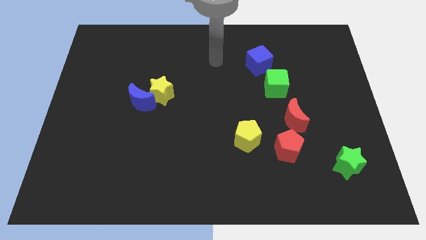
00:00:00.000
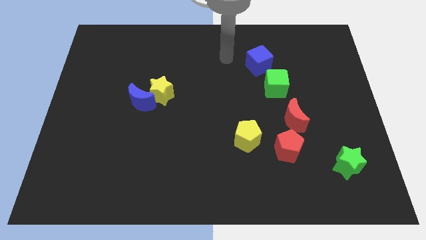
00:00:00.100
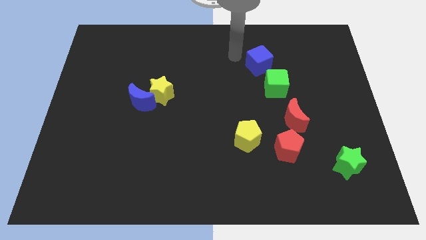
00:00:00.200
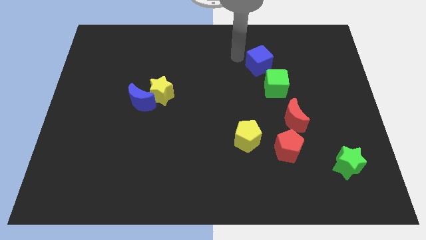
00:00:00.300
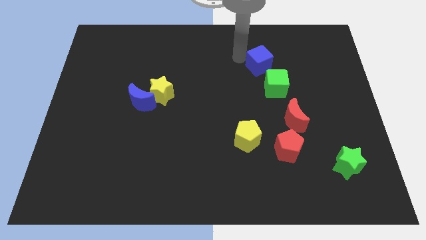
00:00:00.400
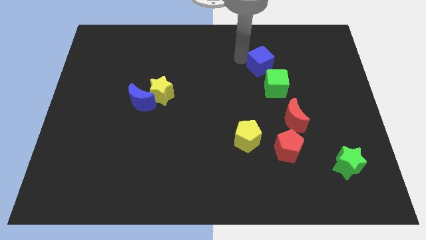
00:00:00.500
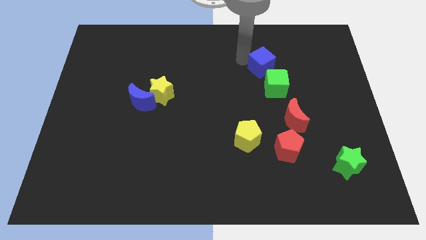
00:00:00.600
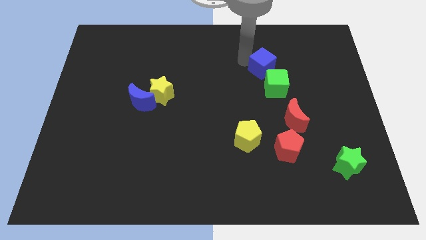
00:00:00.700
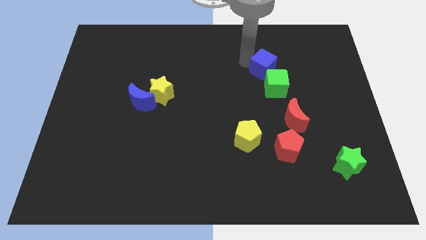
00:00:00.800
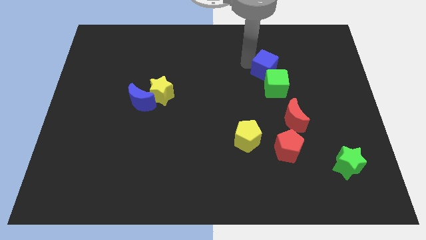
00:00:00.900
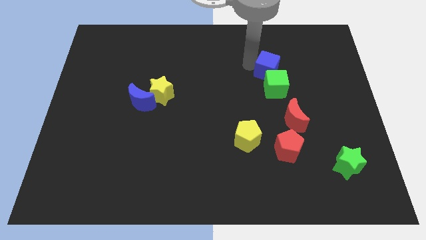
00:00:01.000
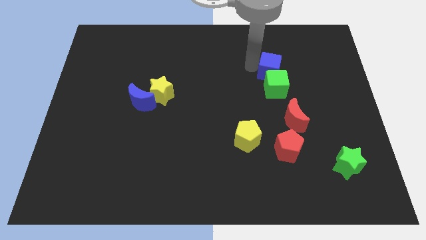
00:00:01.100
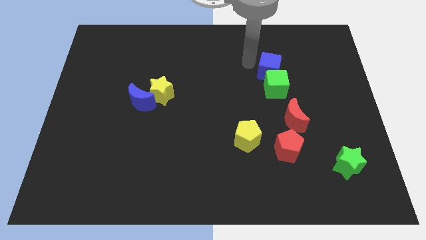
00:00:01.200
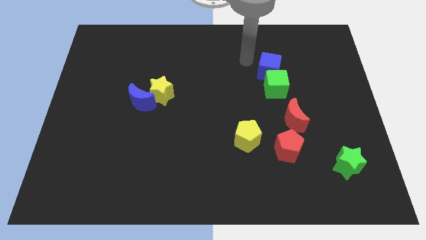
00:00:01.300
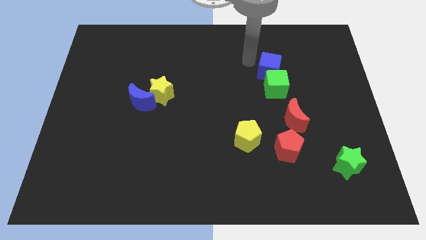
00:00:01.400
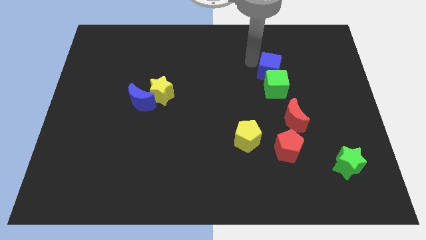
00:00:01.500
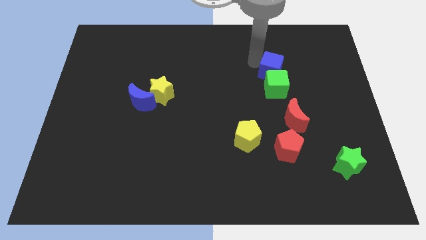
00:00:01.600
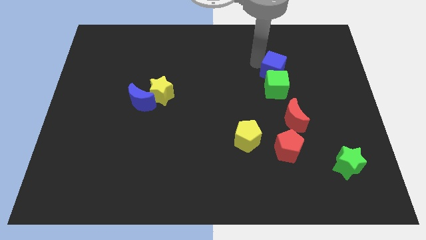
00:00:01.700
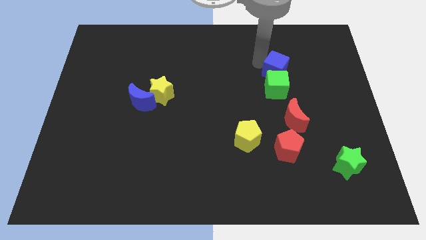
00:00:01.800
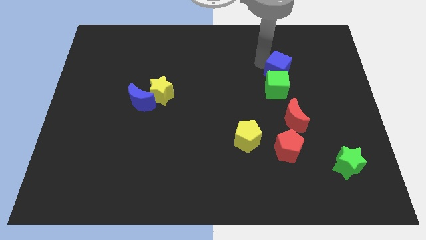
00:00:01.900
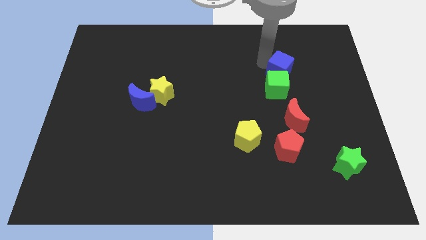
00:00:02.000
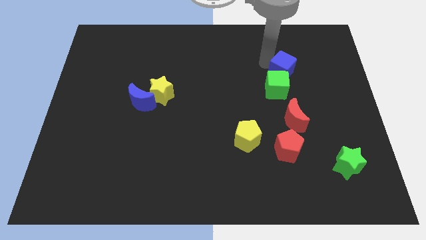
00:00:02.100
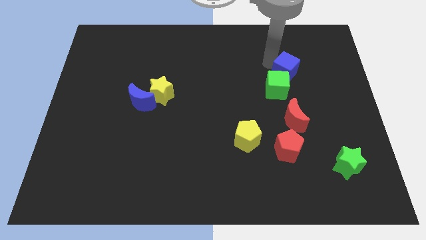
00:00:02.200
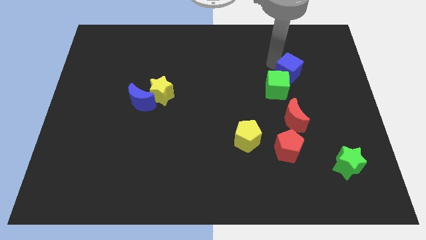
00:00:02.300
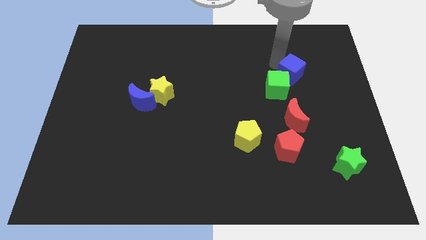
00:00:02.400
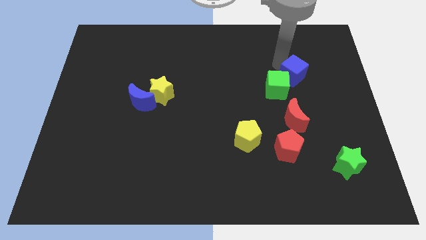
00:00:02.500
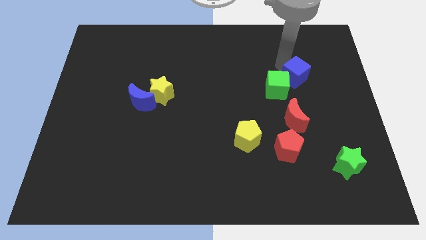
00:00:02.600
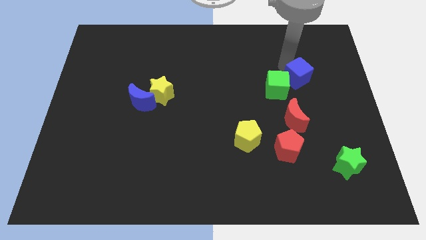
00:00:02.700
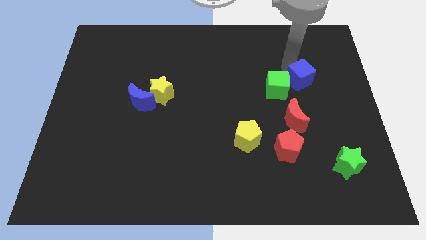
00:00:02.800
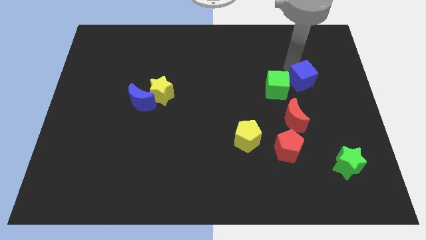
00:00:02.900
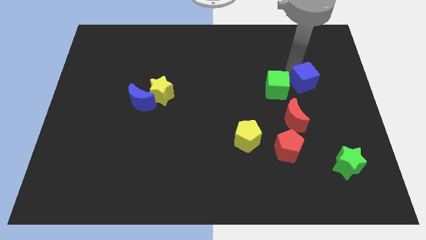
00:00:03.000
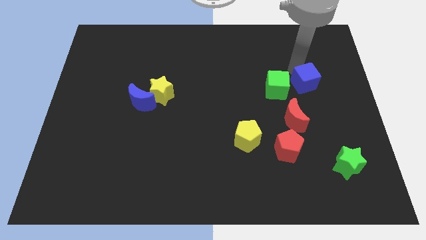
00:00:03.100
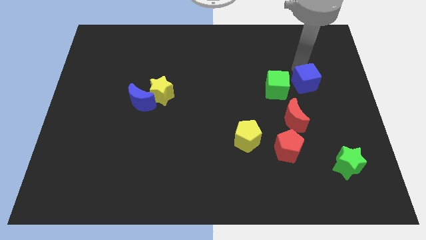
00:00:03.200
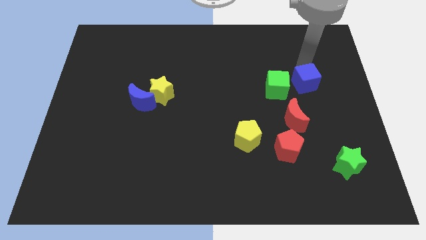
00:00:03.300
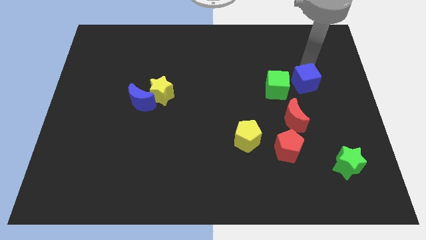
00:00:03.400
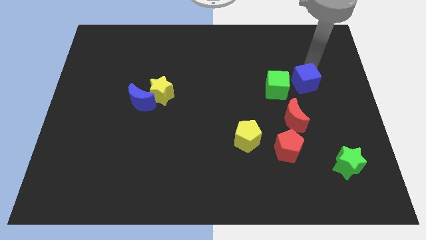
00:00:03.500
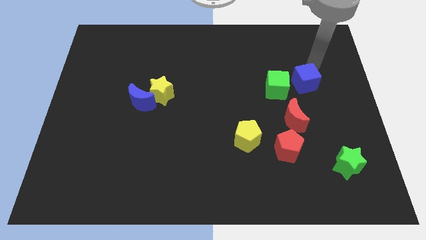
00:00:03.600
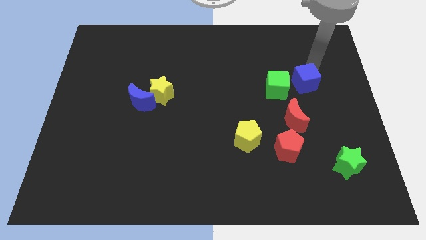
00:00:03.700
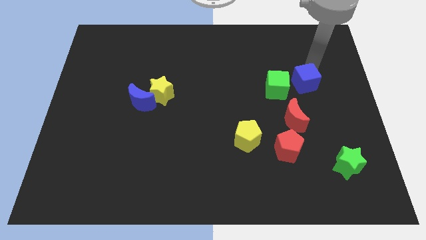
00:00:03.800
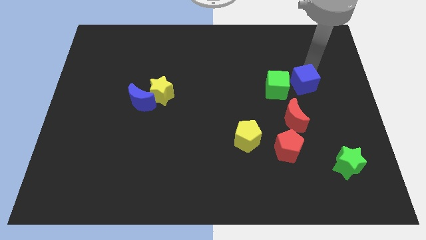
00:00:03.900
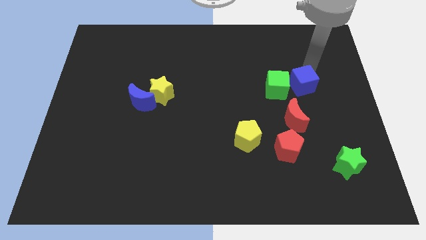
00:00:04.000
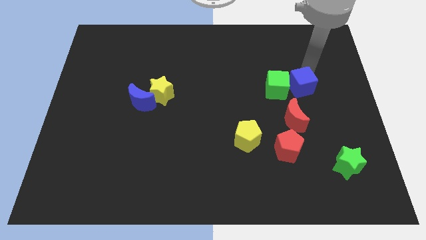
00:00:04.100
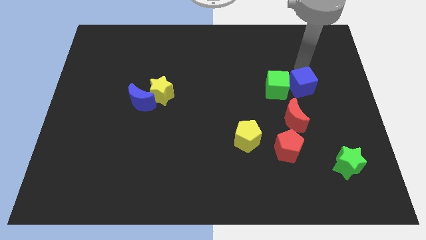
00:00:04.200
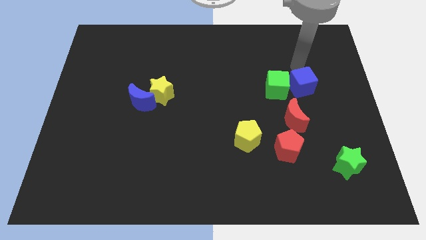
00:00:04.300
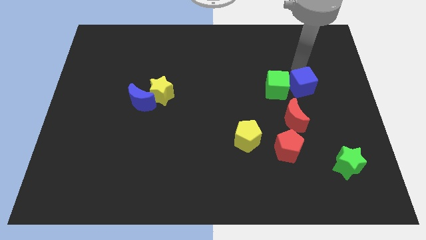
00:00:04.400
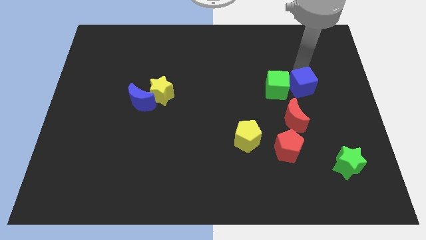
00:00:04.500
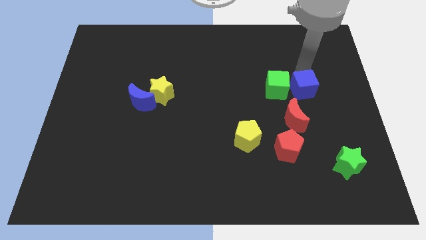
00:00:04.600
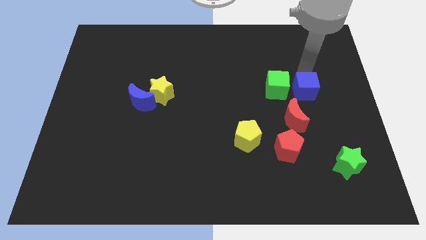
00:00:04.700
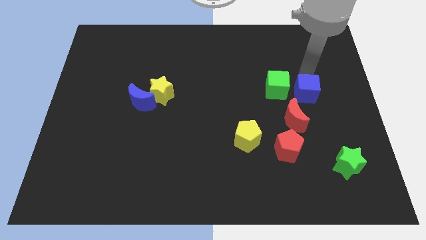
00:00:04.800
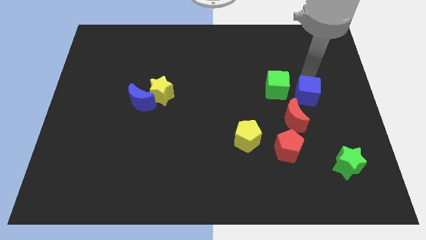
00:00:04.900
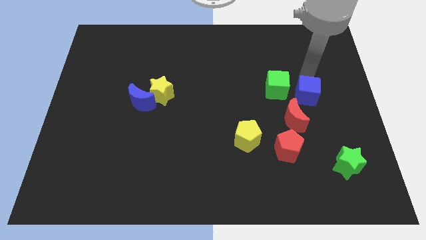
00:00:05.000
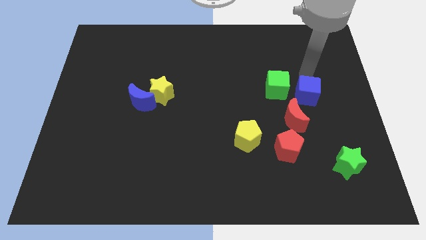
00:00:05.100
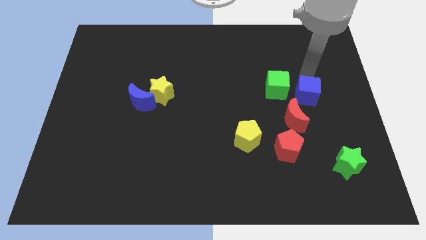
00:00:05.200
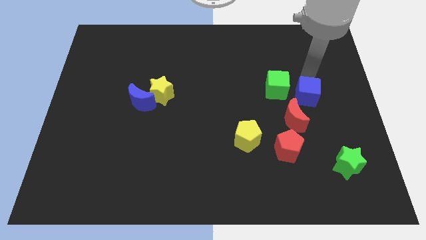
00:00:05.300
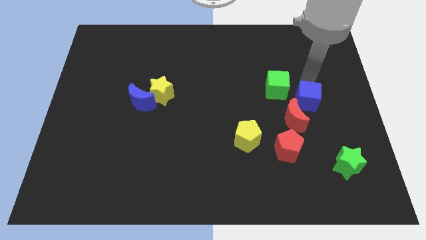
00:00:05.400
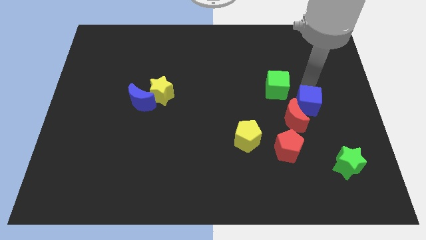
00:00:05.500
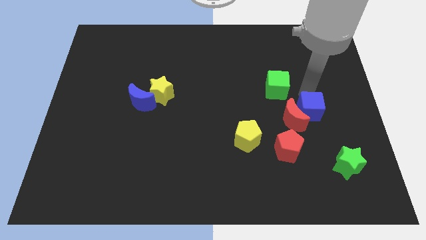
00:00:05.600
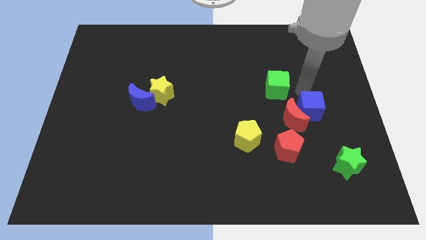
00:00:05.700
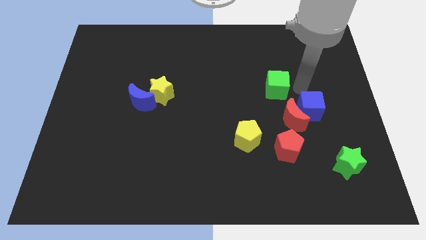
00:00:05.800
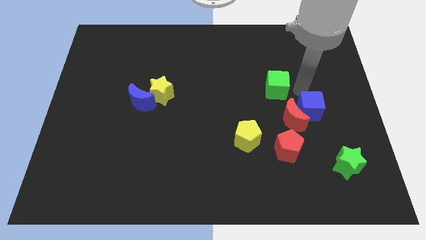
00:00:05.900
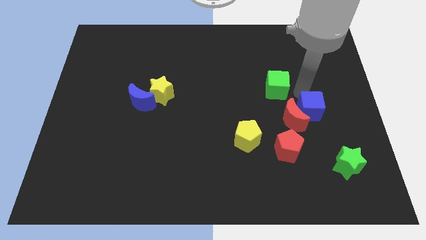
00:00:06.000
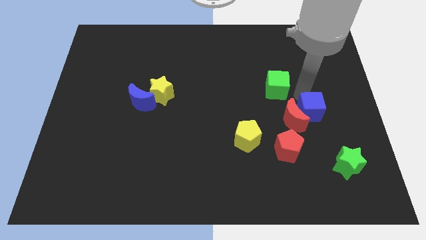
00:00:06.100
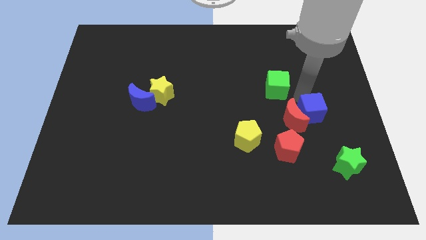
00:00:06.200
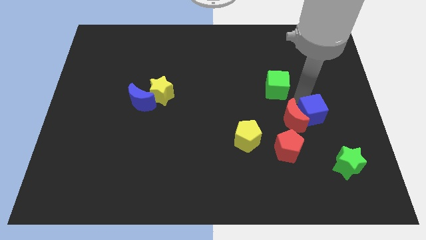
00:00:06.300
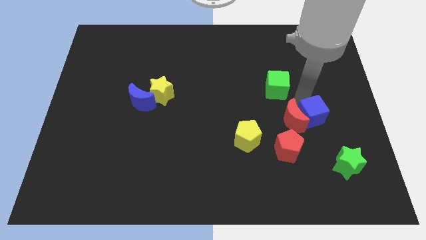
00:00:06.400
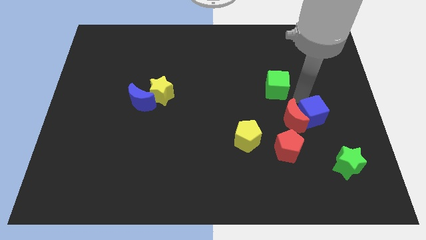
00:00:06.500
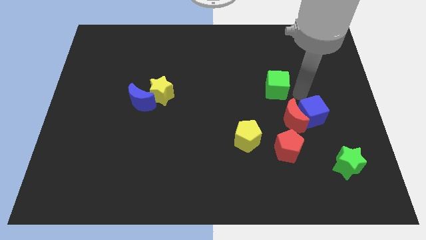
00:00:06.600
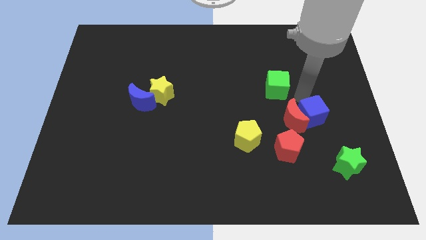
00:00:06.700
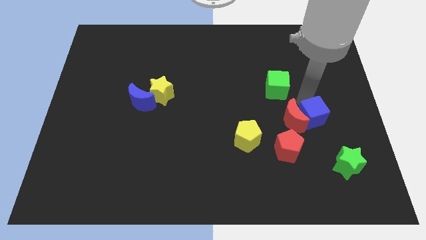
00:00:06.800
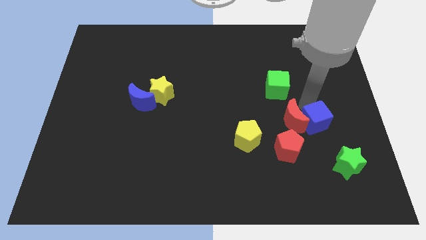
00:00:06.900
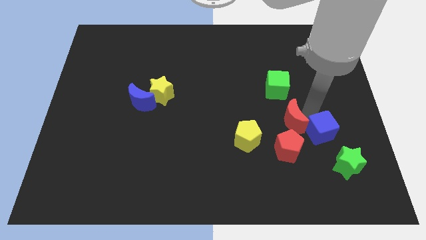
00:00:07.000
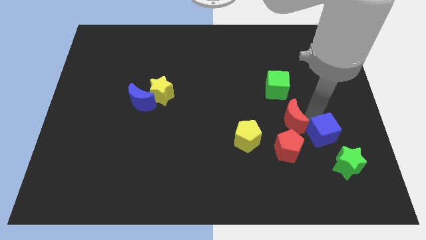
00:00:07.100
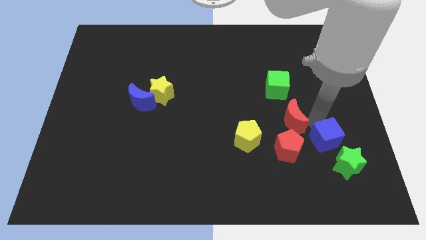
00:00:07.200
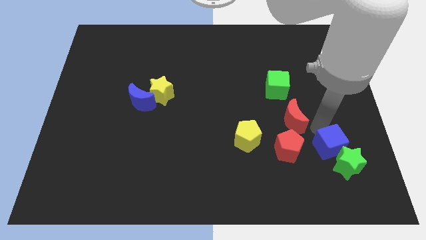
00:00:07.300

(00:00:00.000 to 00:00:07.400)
push the blue cube towards the green star
